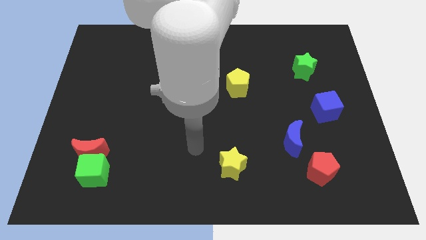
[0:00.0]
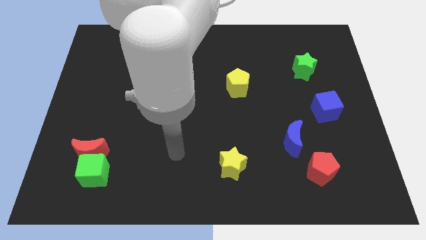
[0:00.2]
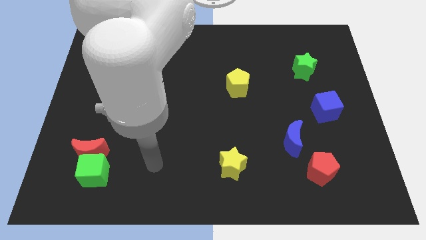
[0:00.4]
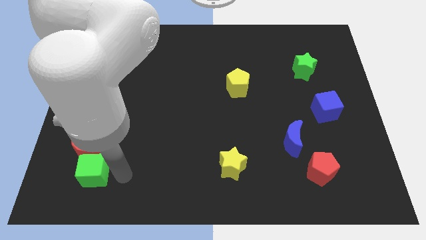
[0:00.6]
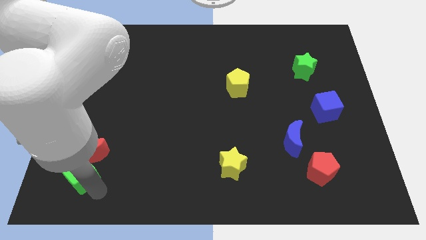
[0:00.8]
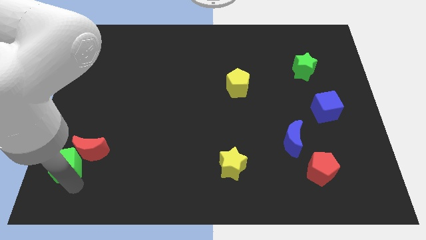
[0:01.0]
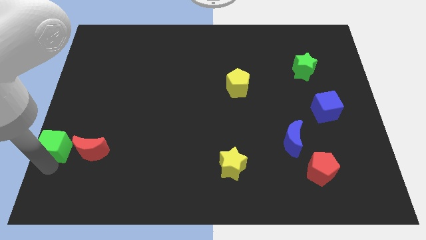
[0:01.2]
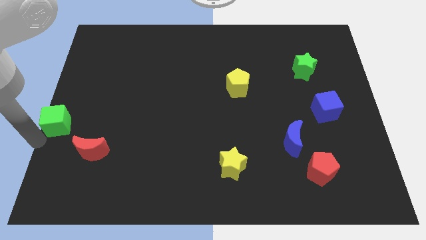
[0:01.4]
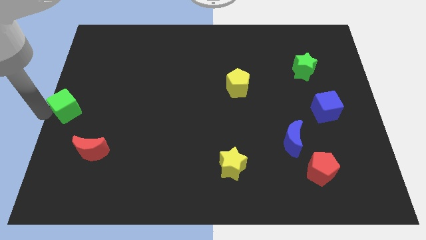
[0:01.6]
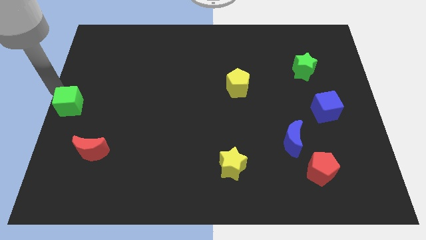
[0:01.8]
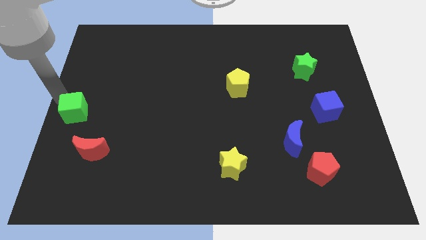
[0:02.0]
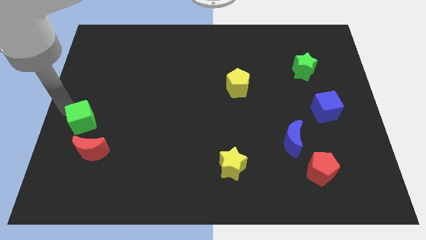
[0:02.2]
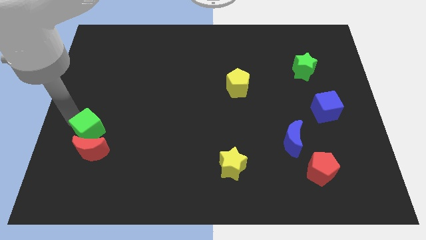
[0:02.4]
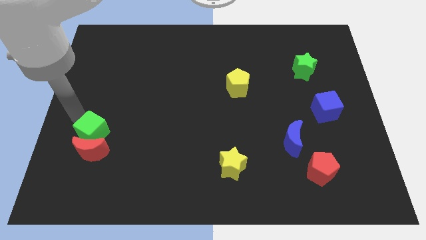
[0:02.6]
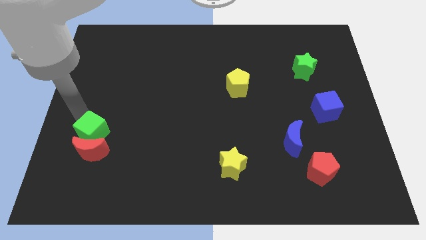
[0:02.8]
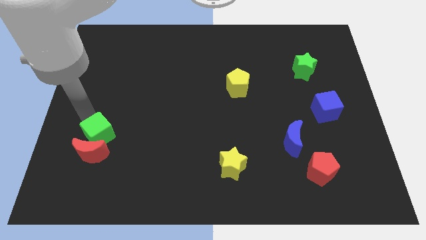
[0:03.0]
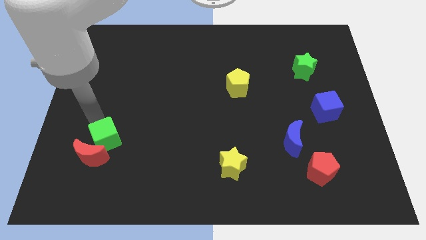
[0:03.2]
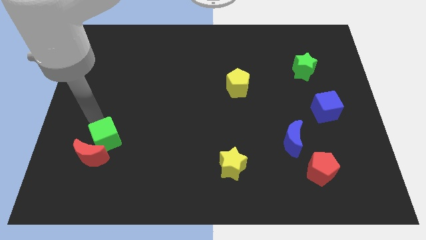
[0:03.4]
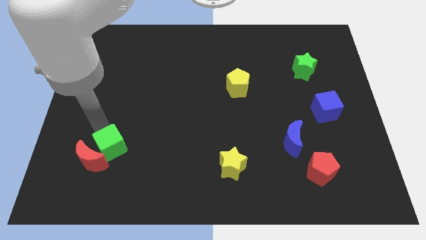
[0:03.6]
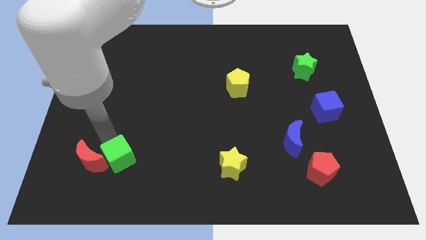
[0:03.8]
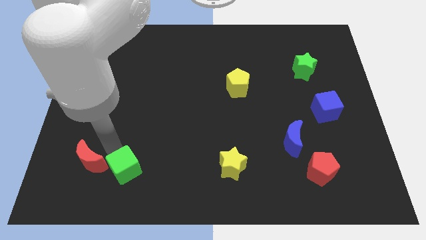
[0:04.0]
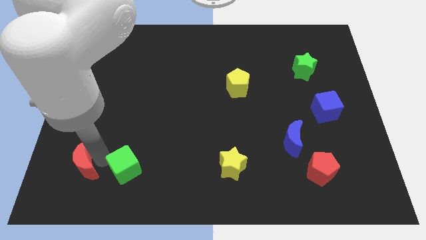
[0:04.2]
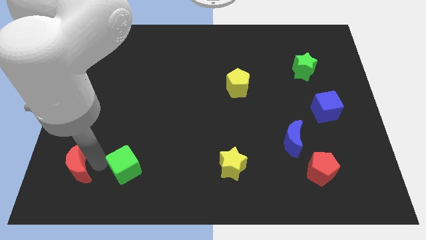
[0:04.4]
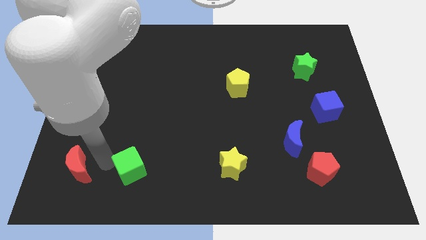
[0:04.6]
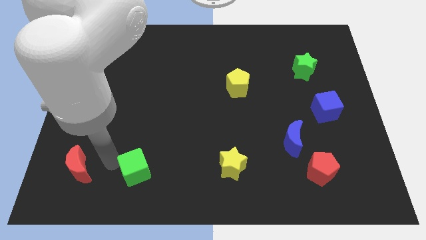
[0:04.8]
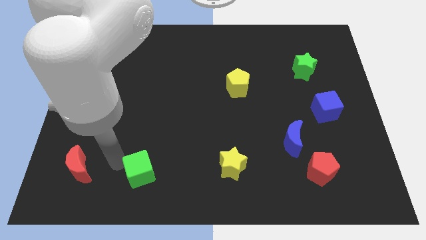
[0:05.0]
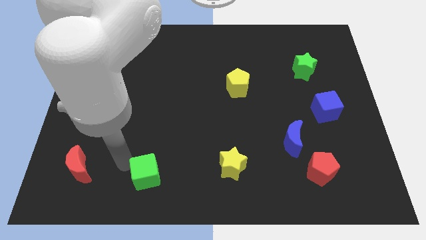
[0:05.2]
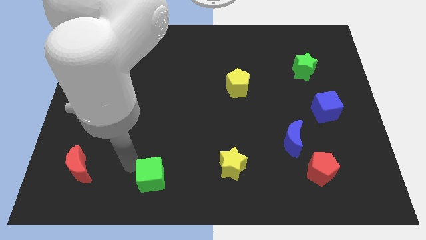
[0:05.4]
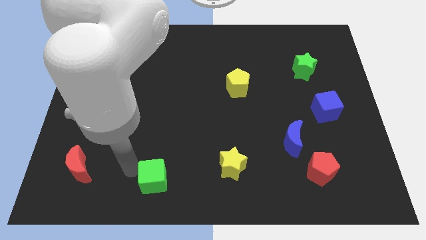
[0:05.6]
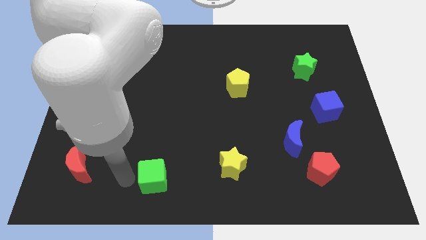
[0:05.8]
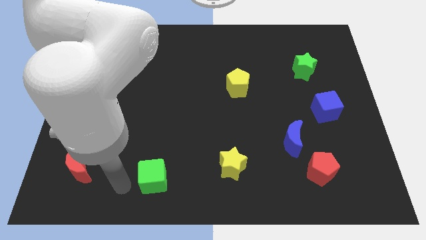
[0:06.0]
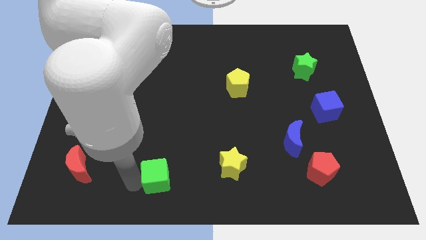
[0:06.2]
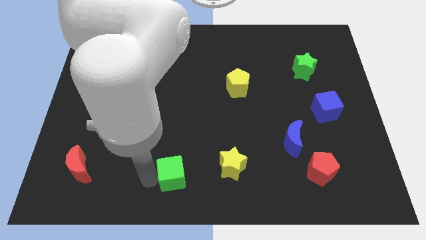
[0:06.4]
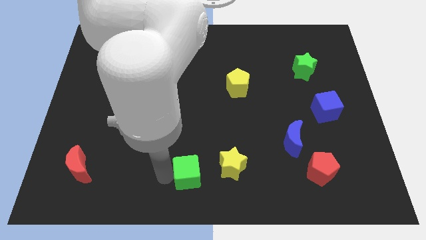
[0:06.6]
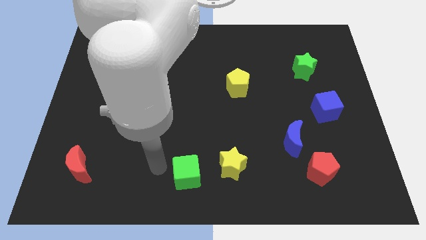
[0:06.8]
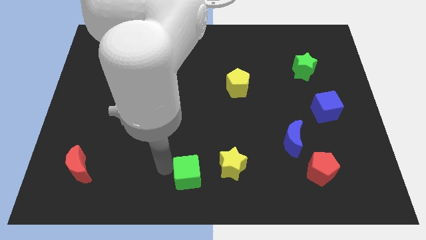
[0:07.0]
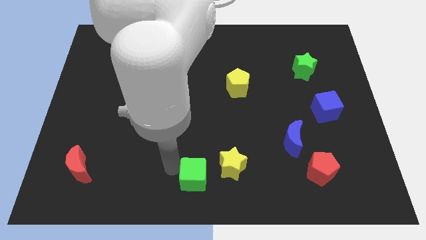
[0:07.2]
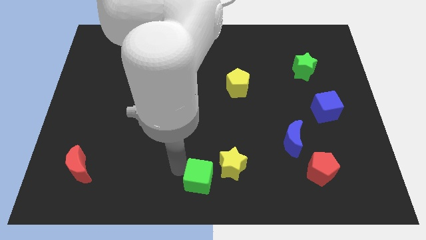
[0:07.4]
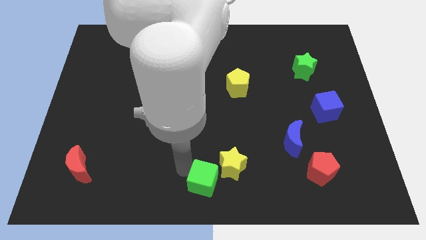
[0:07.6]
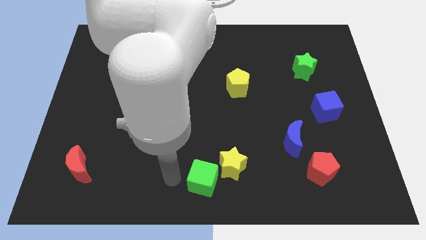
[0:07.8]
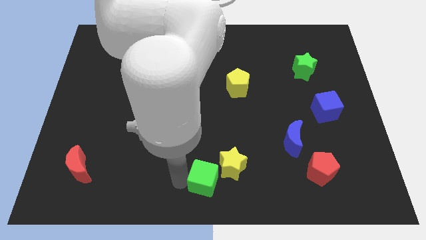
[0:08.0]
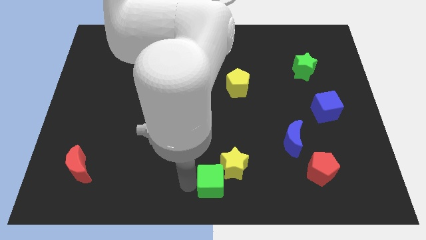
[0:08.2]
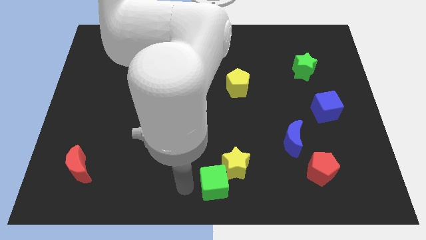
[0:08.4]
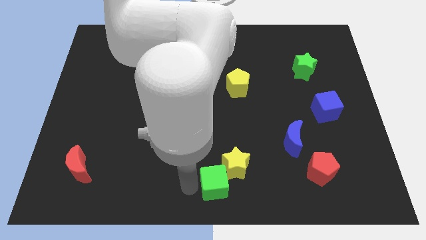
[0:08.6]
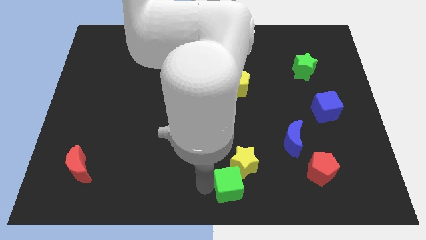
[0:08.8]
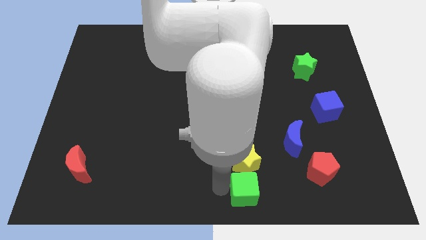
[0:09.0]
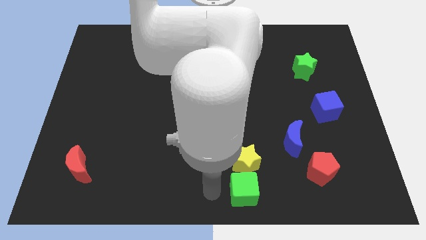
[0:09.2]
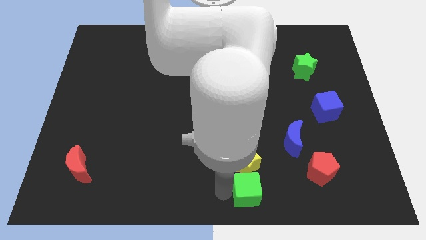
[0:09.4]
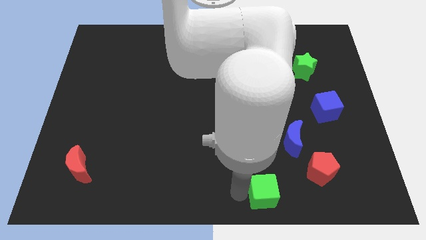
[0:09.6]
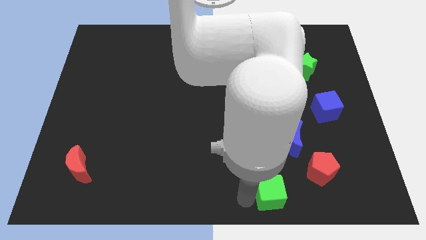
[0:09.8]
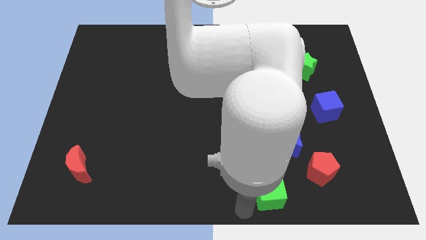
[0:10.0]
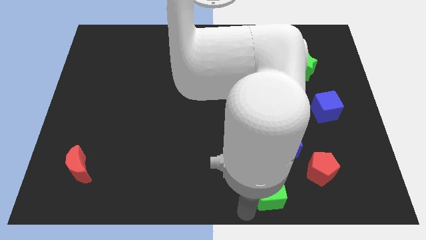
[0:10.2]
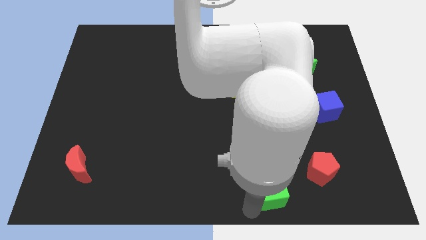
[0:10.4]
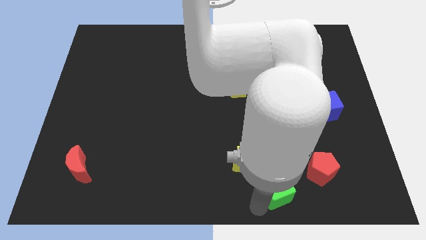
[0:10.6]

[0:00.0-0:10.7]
push the green cube to the bottom side of the blue moon

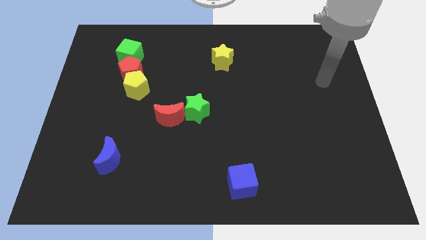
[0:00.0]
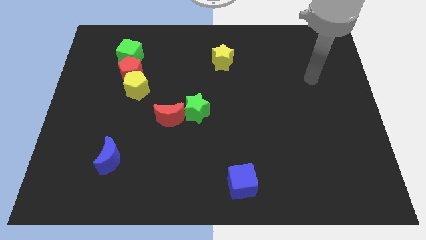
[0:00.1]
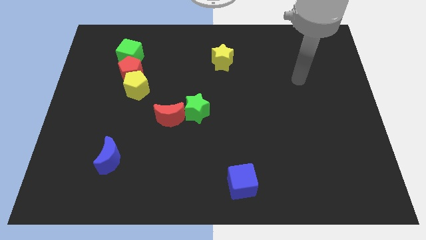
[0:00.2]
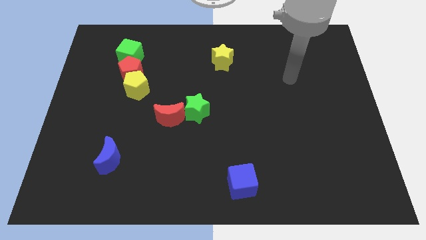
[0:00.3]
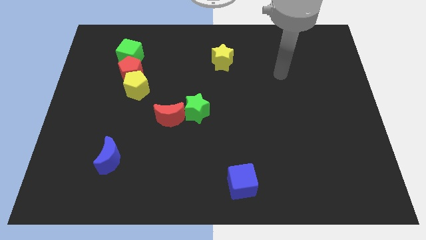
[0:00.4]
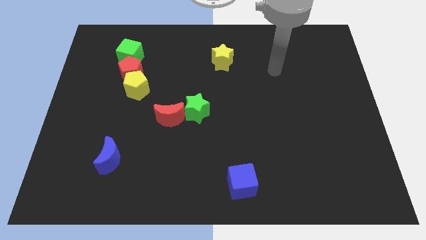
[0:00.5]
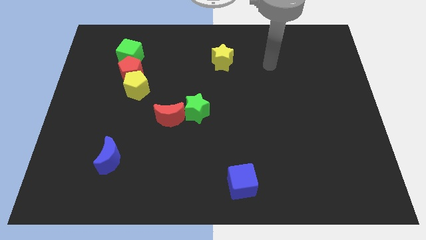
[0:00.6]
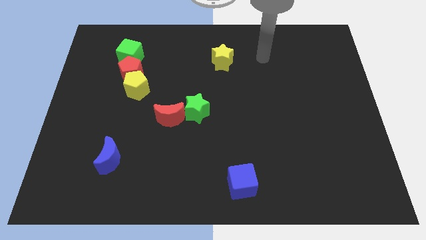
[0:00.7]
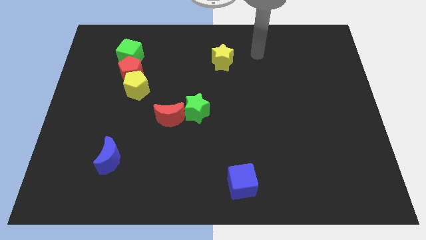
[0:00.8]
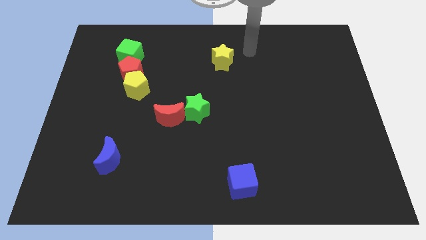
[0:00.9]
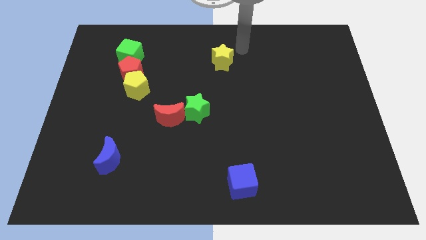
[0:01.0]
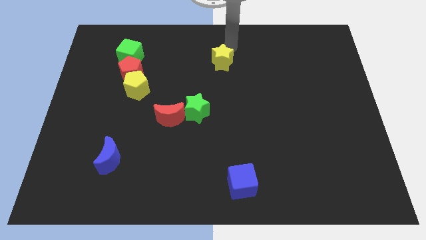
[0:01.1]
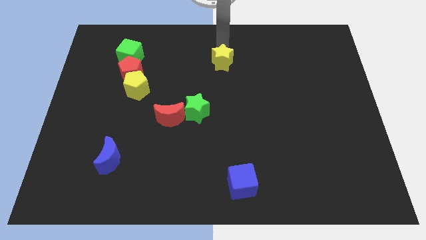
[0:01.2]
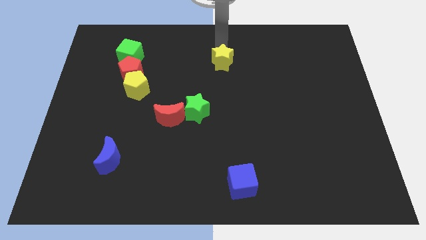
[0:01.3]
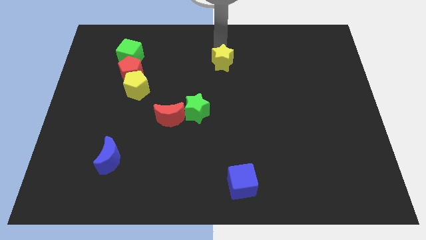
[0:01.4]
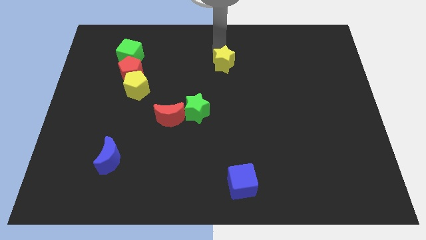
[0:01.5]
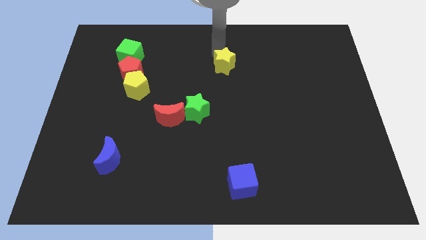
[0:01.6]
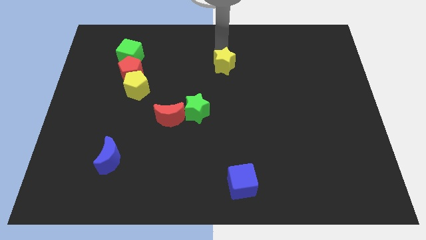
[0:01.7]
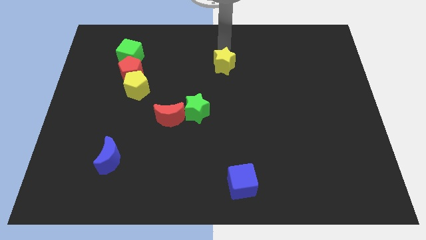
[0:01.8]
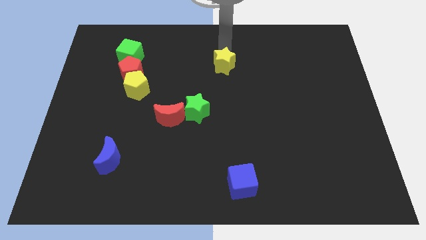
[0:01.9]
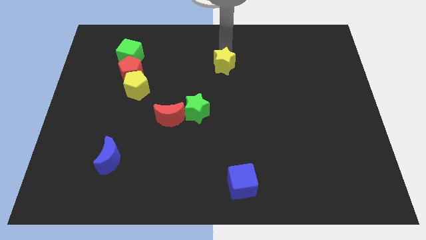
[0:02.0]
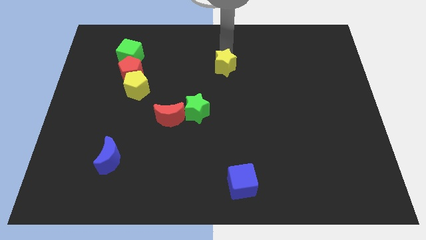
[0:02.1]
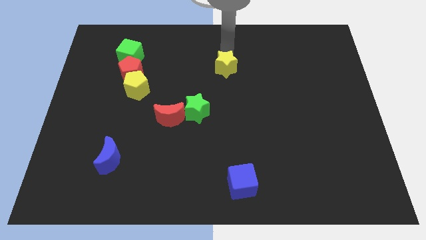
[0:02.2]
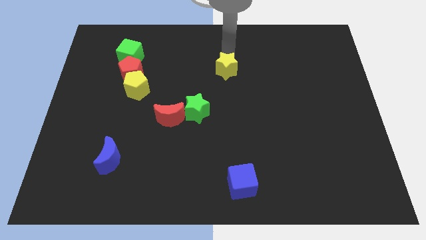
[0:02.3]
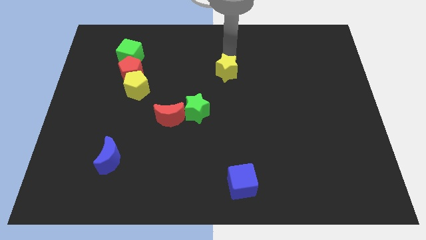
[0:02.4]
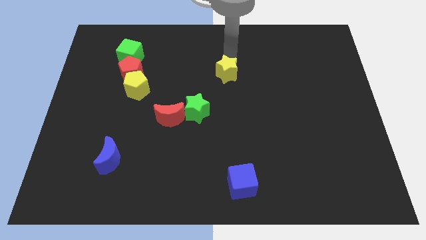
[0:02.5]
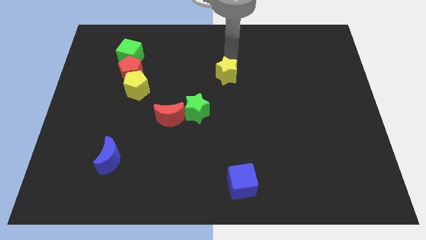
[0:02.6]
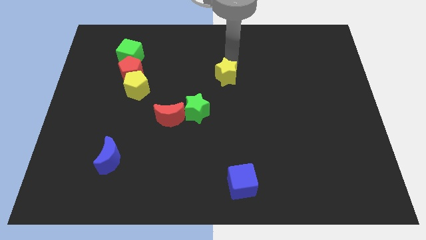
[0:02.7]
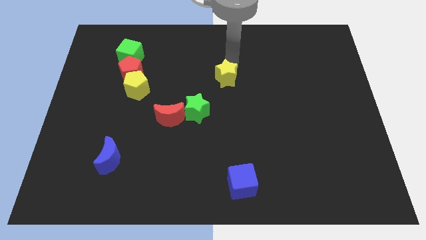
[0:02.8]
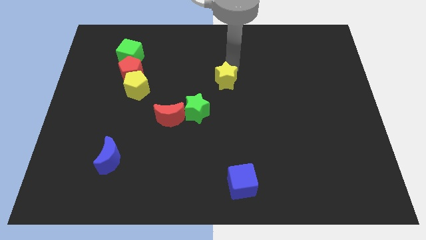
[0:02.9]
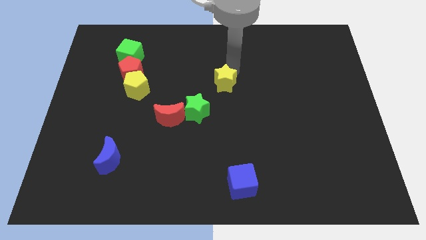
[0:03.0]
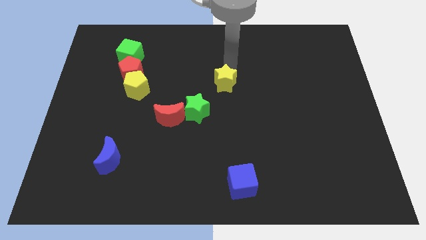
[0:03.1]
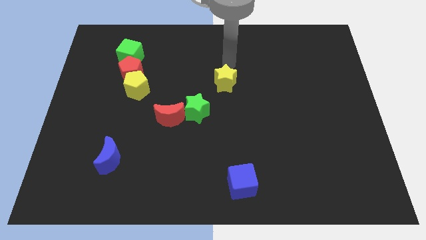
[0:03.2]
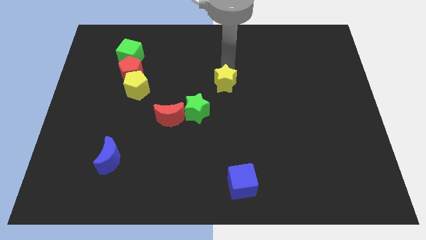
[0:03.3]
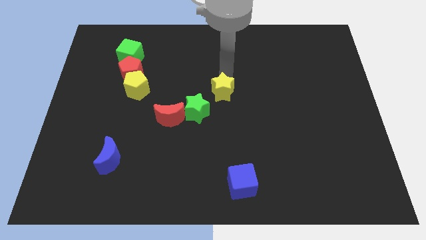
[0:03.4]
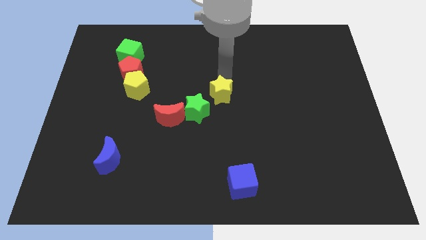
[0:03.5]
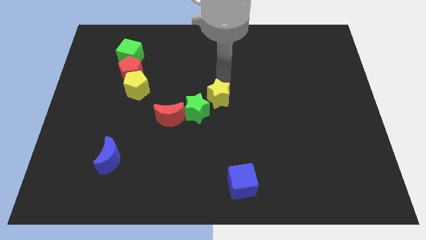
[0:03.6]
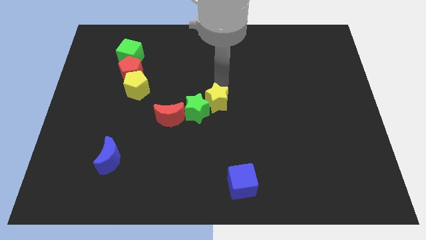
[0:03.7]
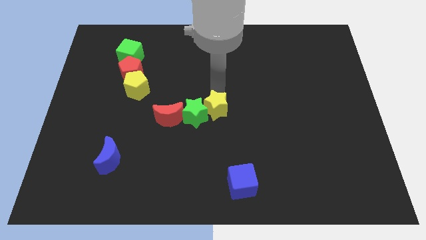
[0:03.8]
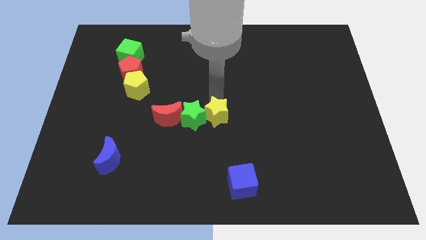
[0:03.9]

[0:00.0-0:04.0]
move the yellow star to the bottom right side of the green star
